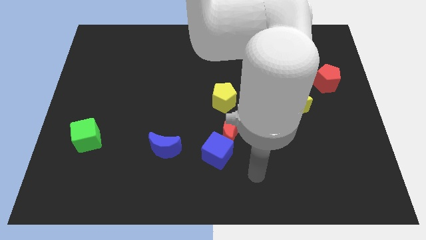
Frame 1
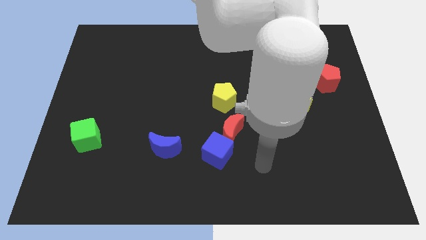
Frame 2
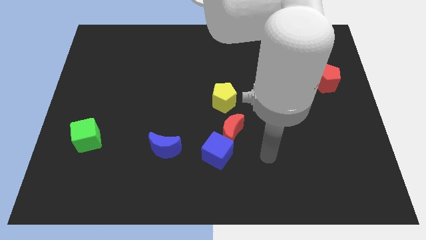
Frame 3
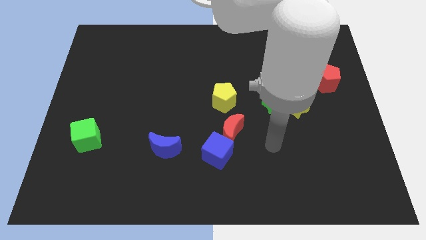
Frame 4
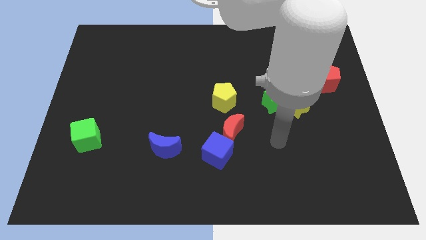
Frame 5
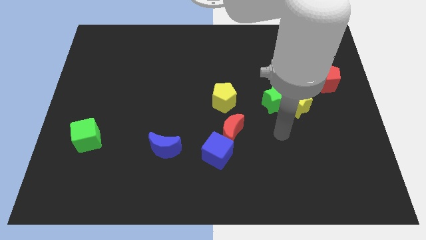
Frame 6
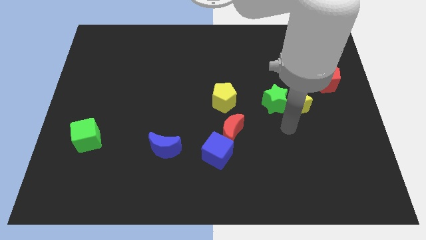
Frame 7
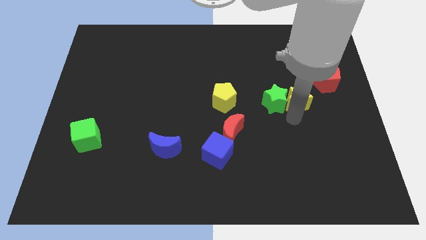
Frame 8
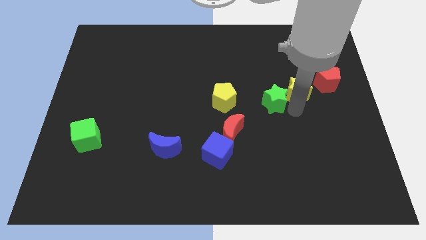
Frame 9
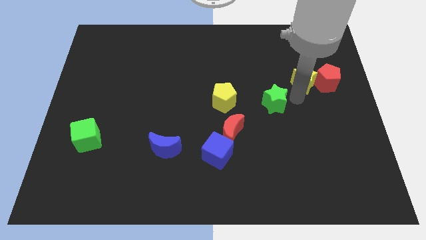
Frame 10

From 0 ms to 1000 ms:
pull the green star apart from the yellow star

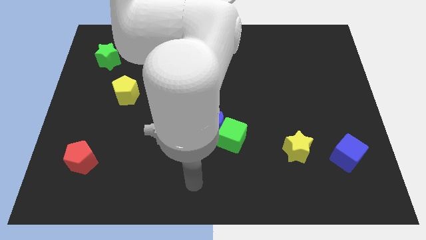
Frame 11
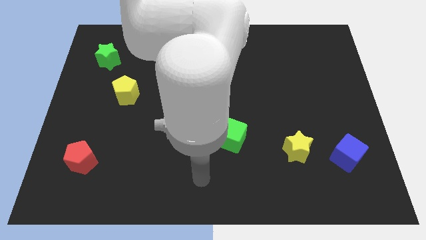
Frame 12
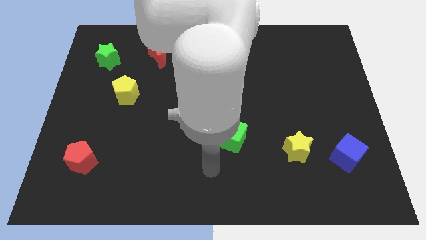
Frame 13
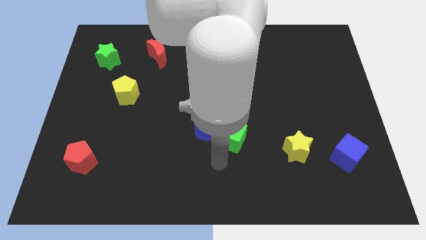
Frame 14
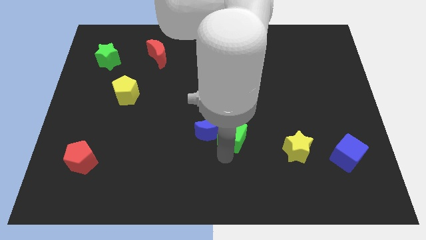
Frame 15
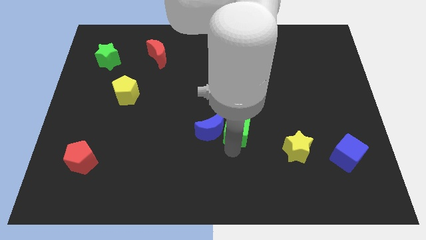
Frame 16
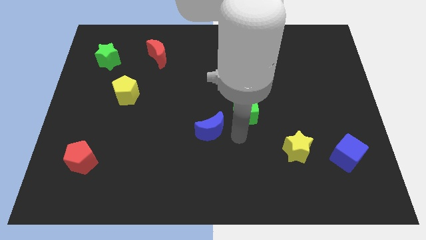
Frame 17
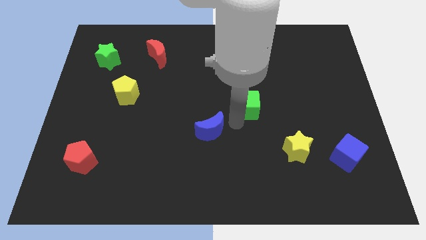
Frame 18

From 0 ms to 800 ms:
pull the blue moon apart from the green cube

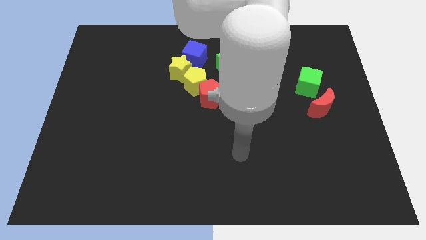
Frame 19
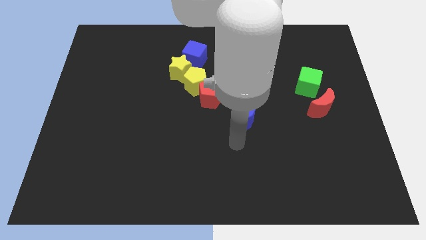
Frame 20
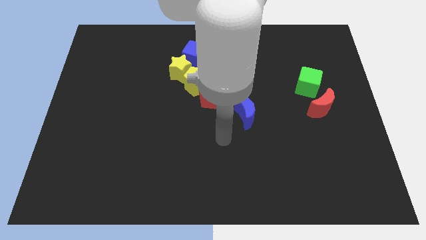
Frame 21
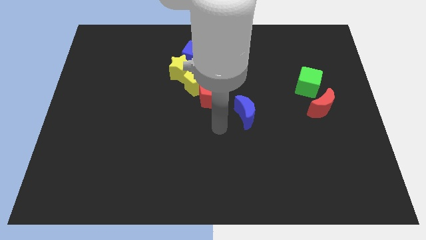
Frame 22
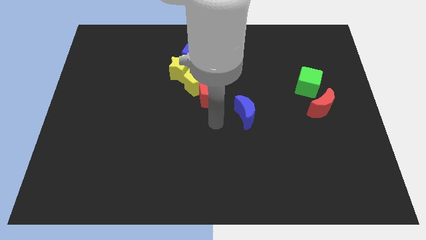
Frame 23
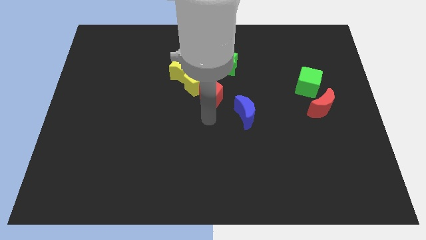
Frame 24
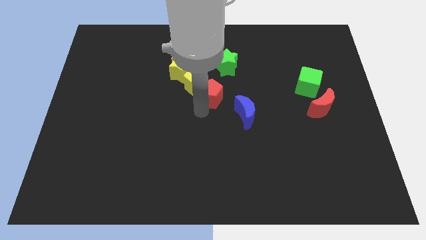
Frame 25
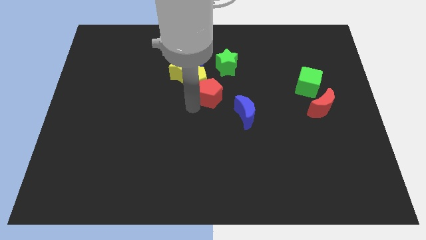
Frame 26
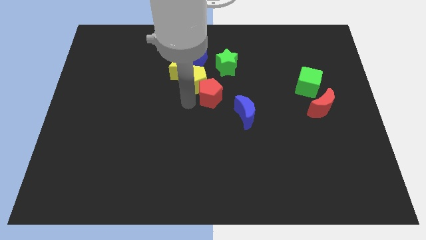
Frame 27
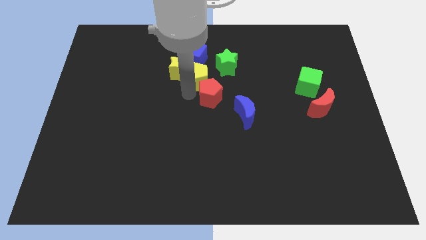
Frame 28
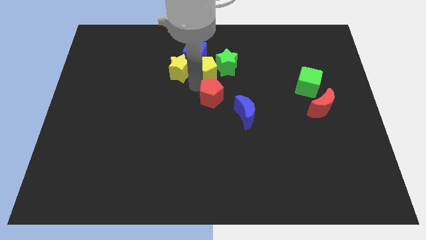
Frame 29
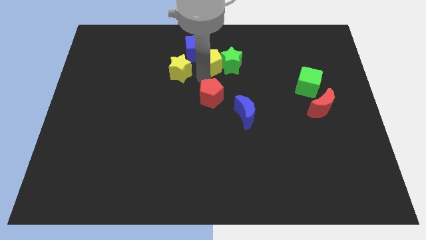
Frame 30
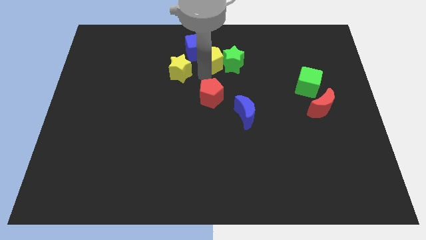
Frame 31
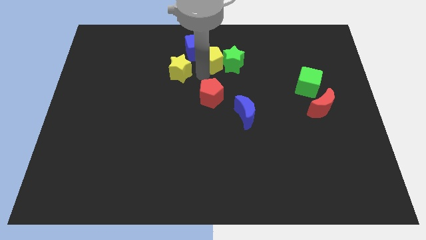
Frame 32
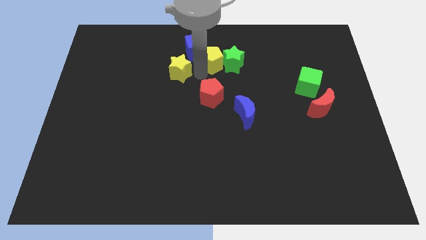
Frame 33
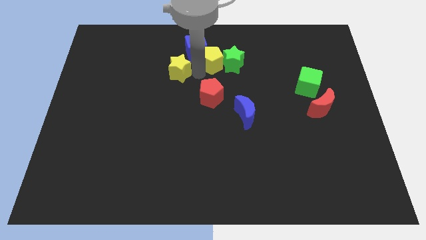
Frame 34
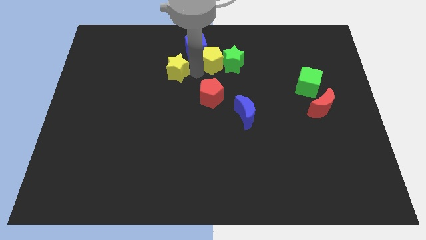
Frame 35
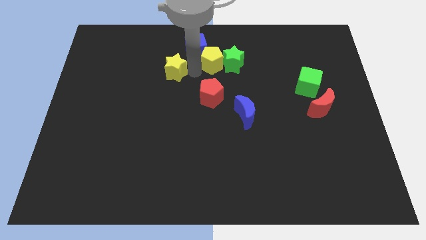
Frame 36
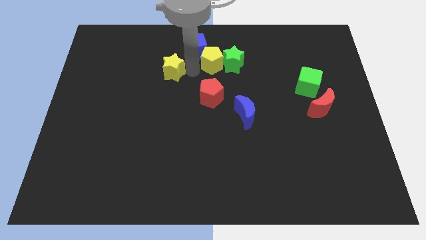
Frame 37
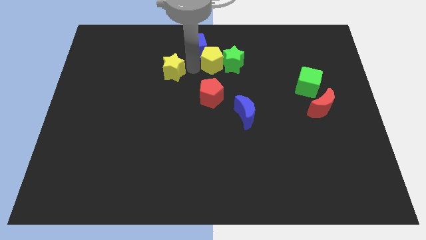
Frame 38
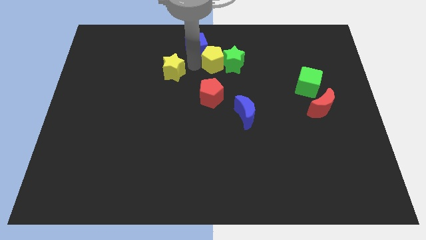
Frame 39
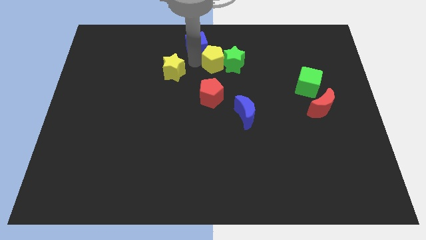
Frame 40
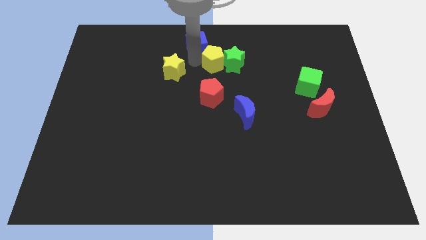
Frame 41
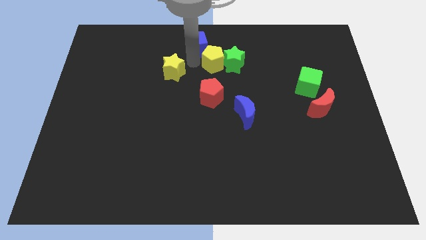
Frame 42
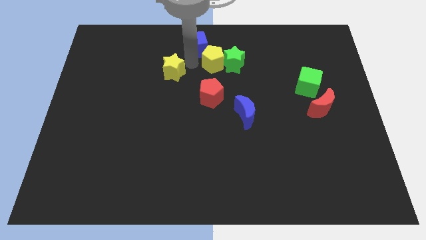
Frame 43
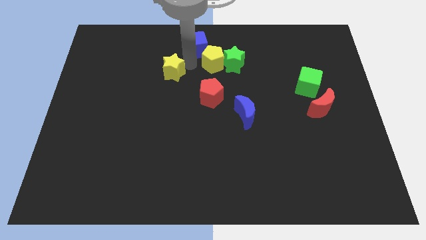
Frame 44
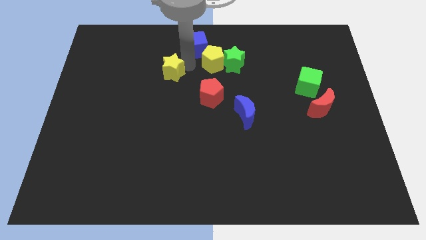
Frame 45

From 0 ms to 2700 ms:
separate the yellow star from the blue cube and yellow pentagon

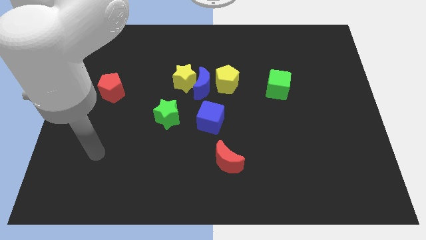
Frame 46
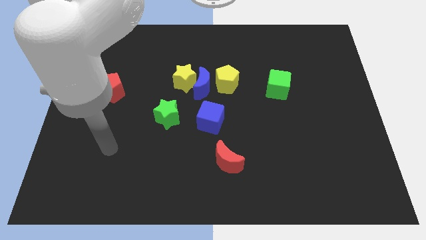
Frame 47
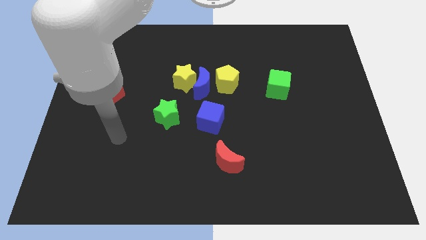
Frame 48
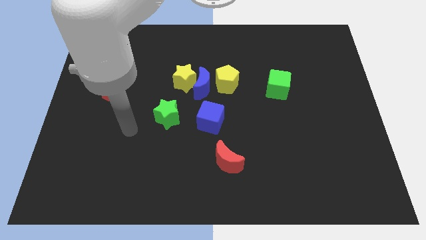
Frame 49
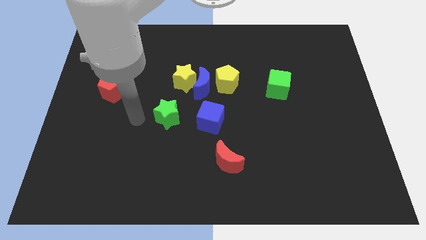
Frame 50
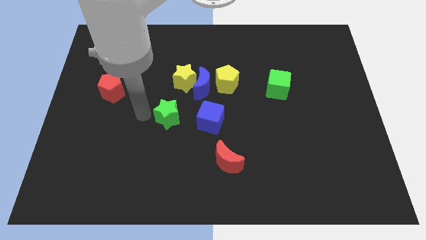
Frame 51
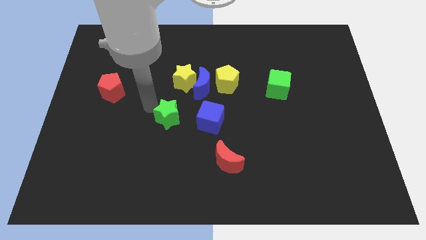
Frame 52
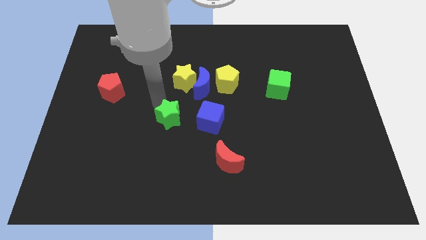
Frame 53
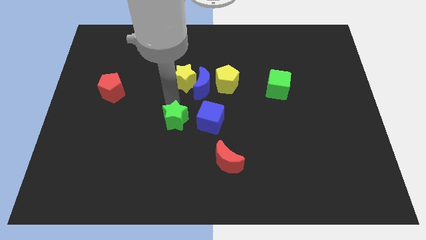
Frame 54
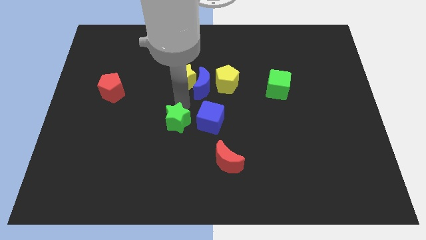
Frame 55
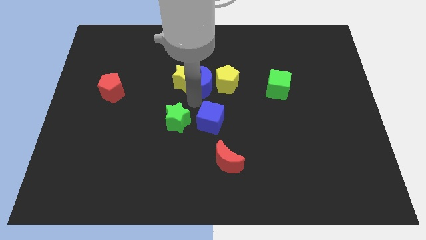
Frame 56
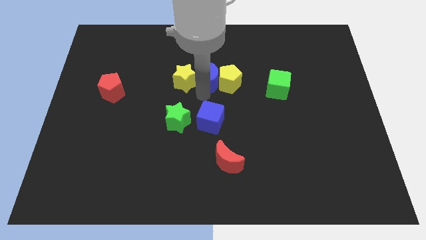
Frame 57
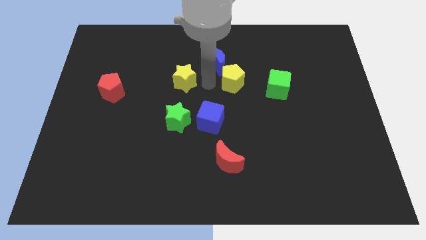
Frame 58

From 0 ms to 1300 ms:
separate the yellow star from the blue moon

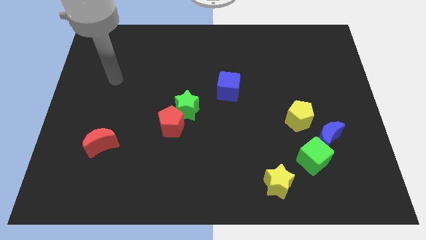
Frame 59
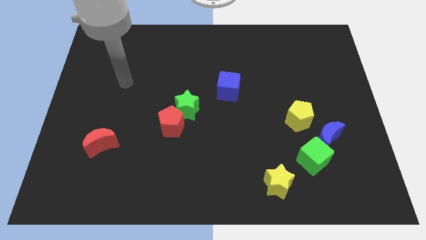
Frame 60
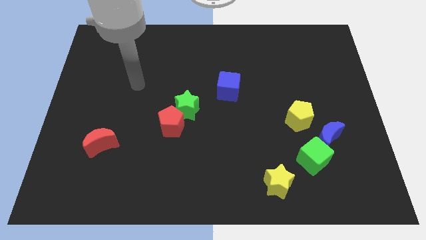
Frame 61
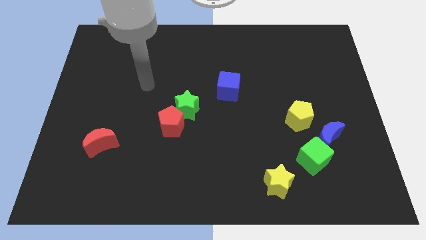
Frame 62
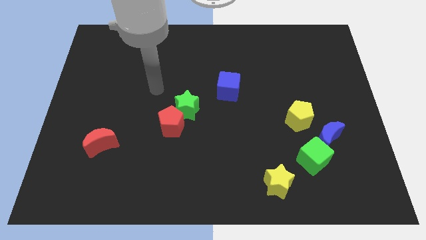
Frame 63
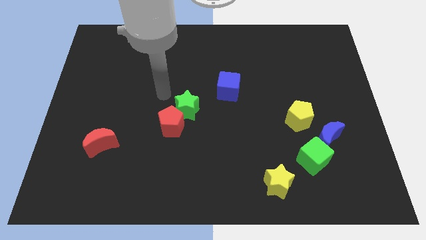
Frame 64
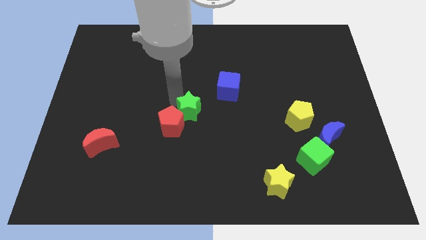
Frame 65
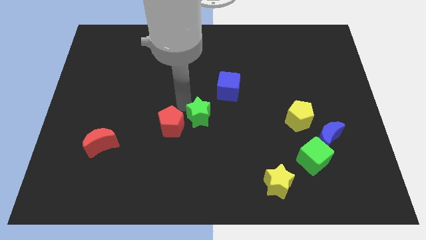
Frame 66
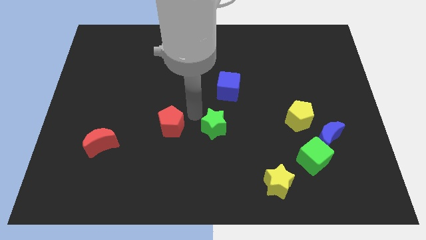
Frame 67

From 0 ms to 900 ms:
pull the red pentagon apart from the green star

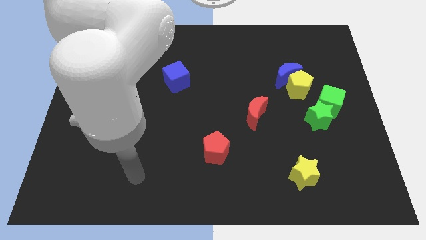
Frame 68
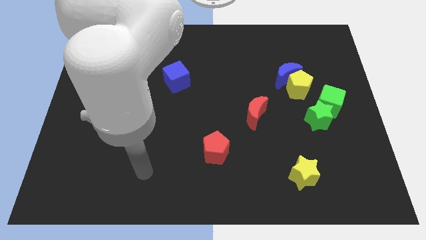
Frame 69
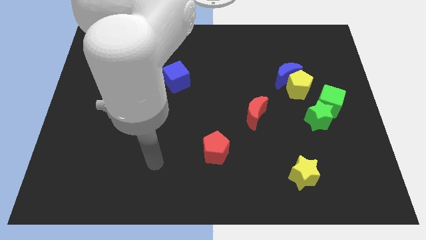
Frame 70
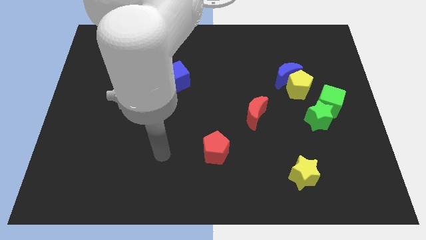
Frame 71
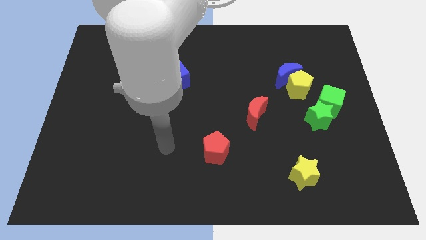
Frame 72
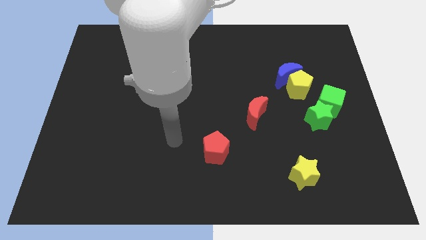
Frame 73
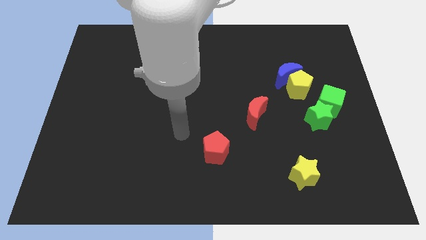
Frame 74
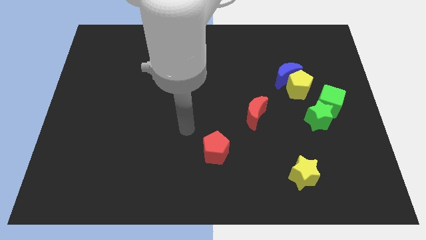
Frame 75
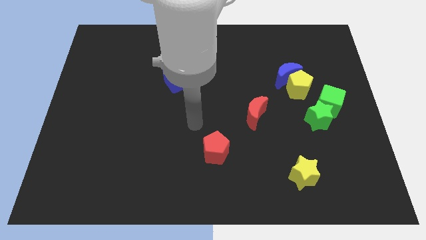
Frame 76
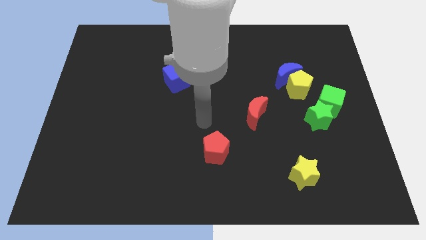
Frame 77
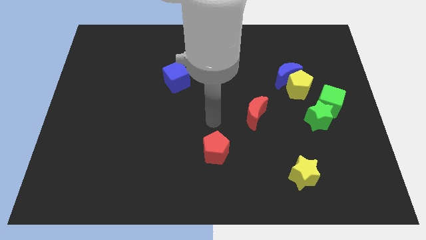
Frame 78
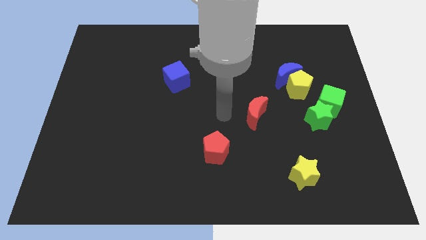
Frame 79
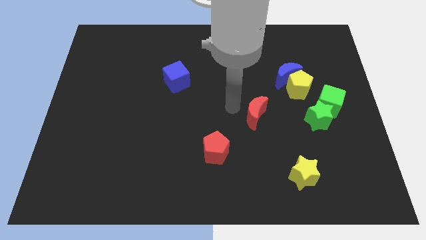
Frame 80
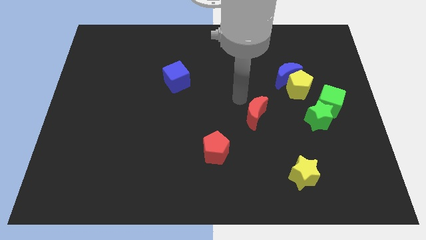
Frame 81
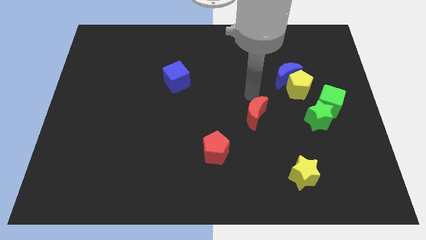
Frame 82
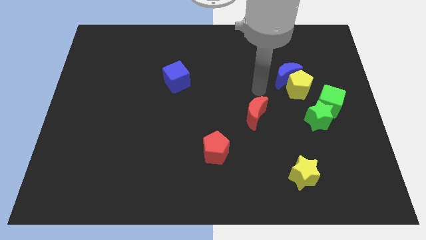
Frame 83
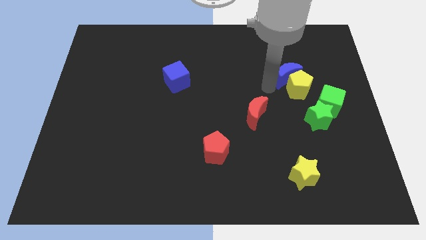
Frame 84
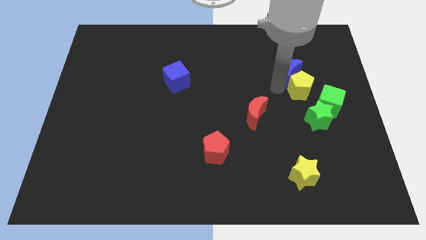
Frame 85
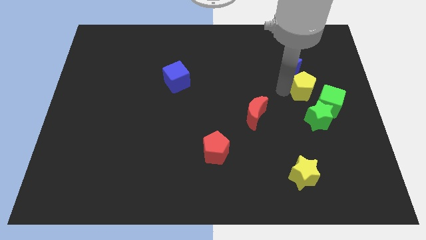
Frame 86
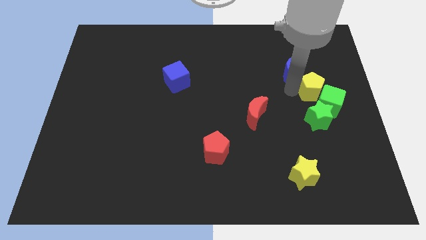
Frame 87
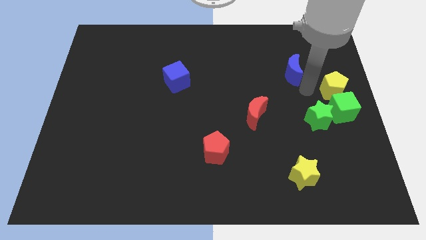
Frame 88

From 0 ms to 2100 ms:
pull the blue moon apart from the yellow pentagon

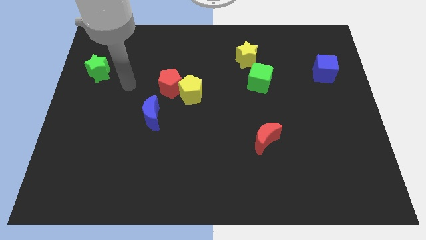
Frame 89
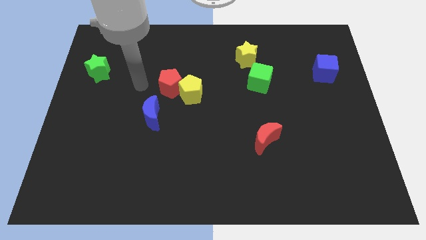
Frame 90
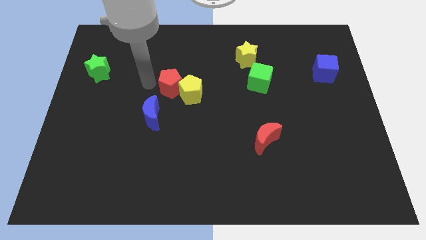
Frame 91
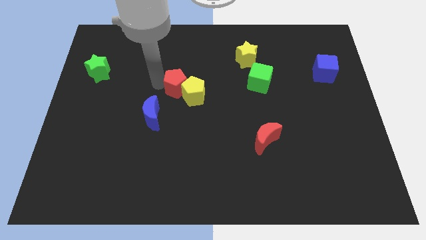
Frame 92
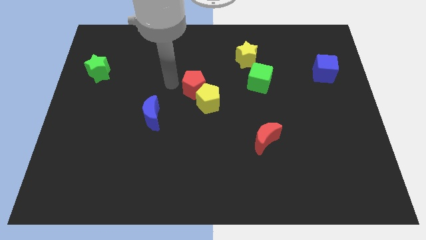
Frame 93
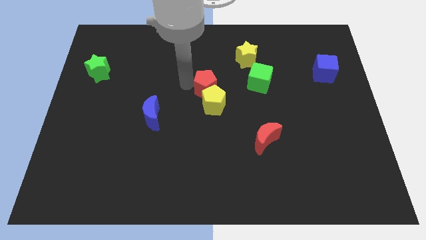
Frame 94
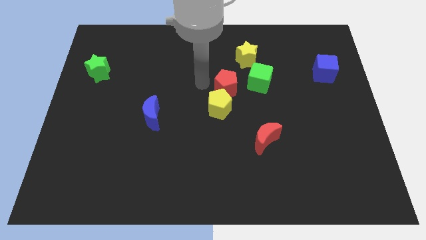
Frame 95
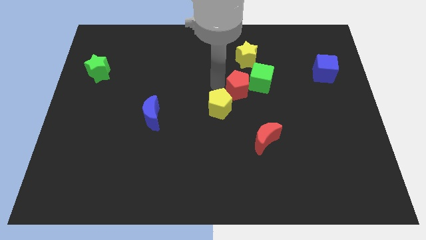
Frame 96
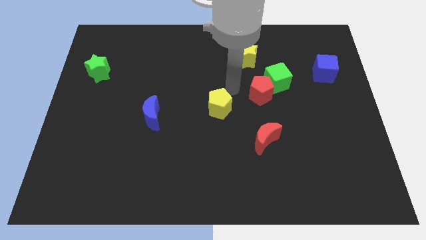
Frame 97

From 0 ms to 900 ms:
pull the yellow pentagon apart from the red pentagon
